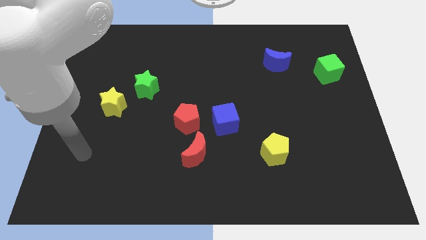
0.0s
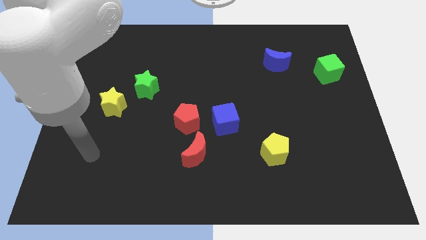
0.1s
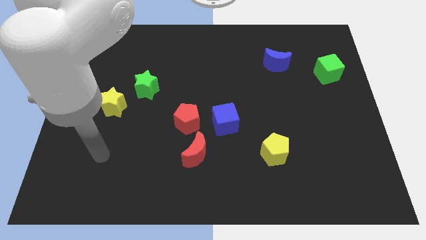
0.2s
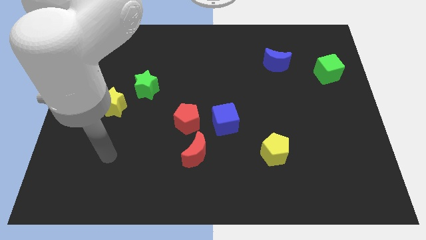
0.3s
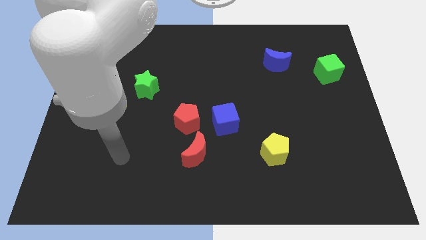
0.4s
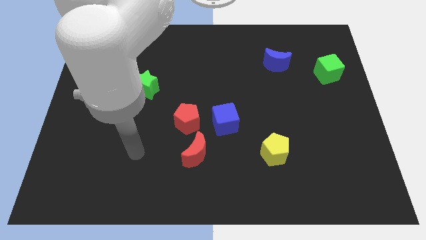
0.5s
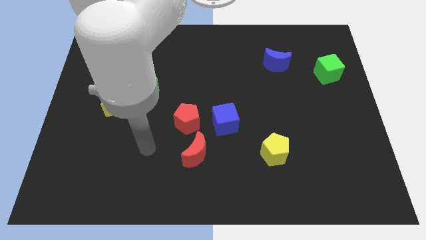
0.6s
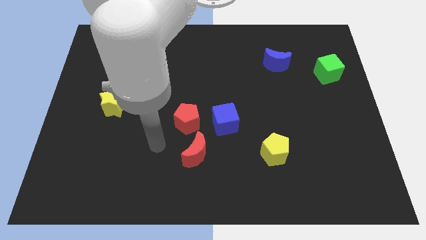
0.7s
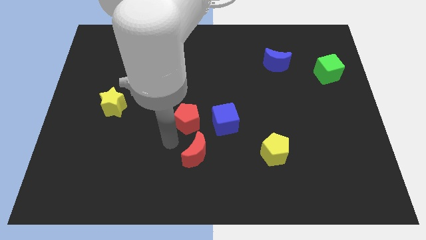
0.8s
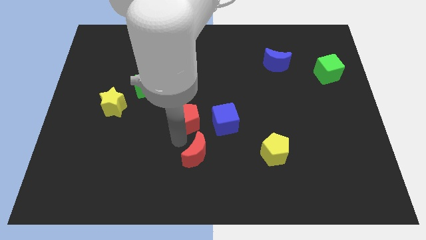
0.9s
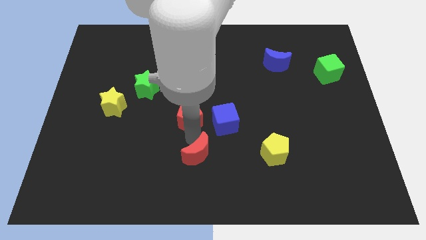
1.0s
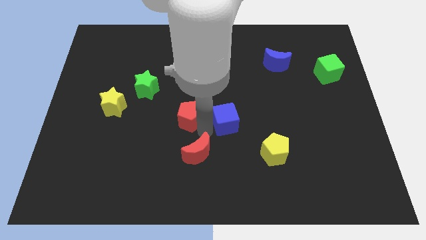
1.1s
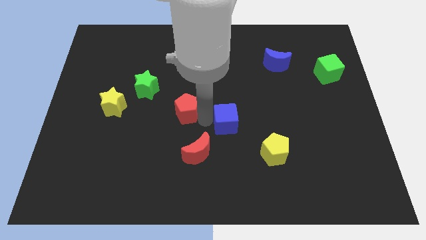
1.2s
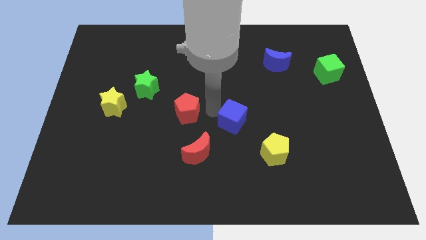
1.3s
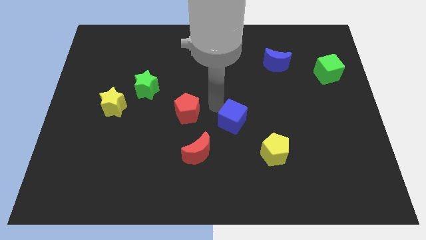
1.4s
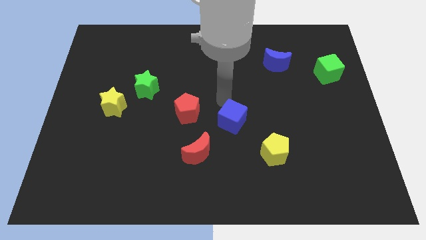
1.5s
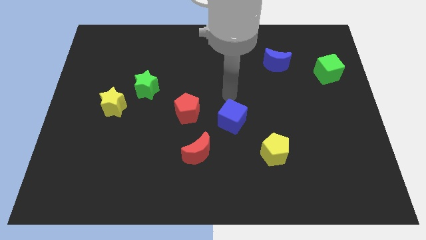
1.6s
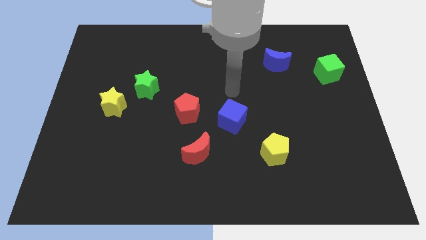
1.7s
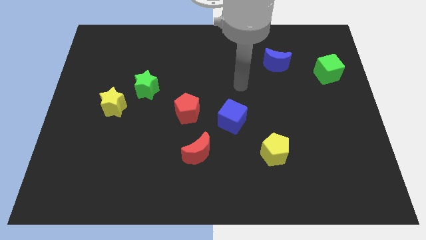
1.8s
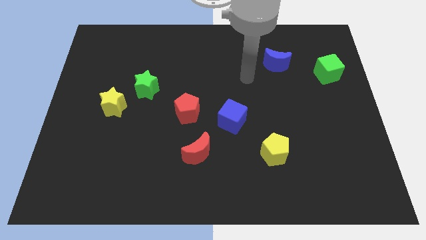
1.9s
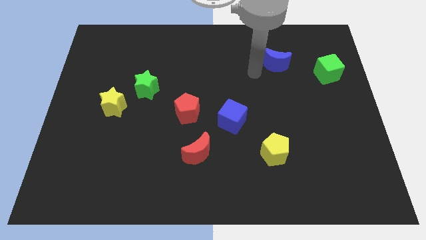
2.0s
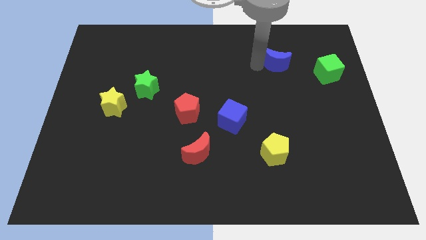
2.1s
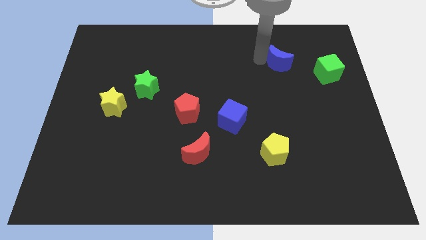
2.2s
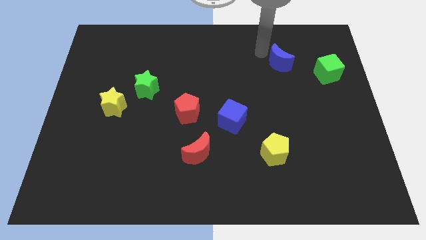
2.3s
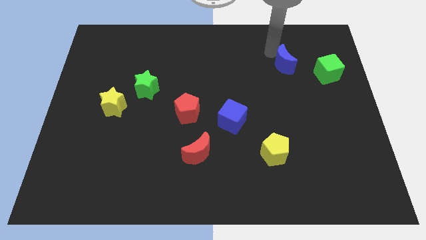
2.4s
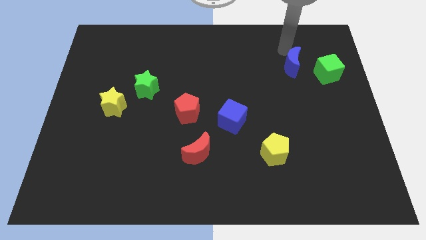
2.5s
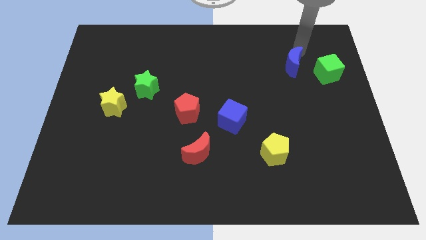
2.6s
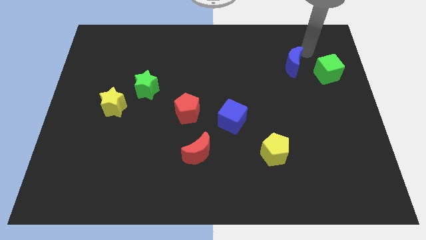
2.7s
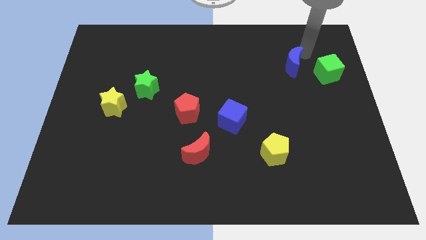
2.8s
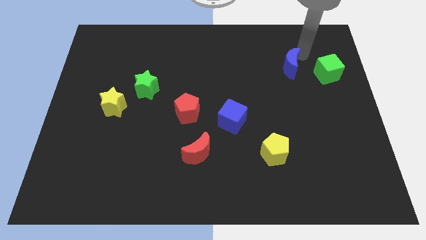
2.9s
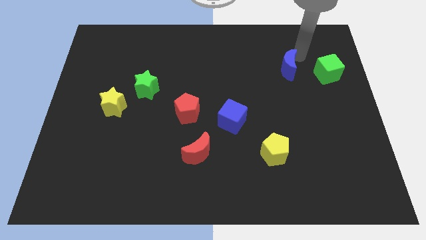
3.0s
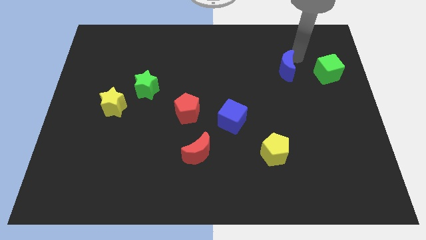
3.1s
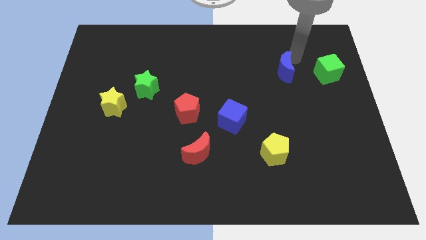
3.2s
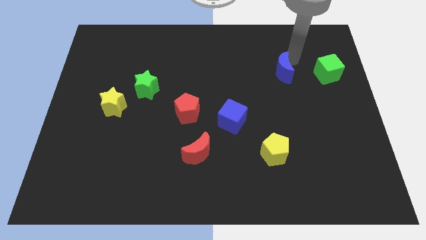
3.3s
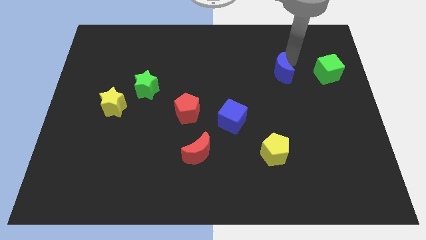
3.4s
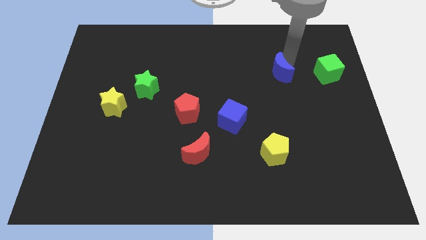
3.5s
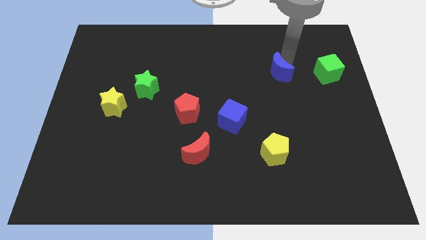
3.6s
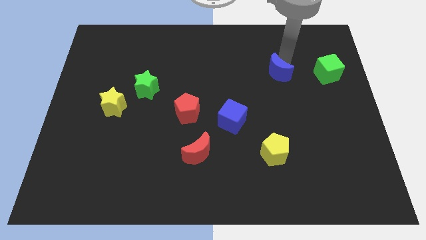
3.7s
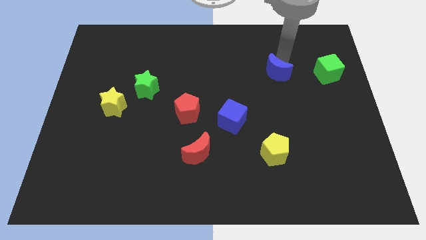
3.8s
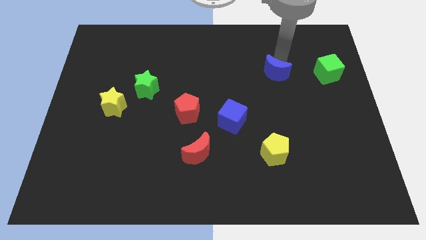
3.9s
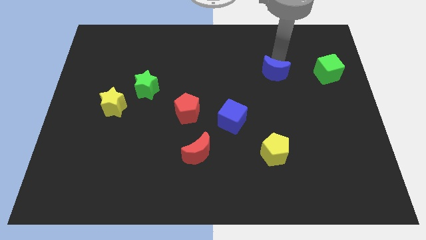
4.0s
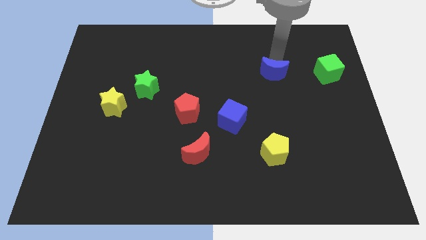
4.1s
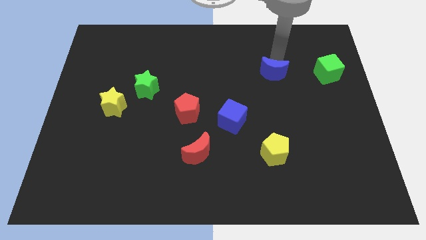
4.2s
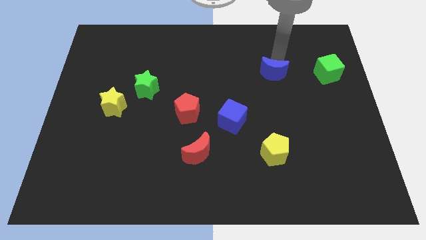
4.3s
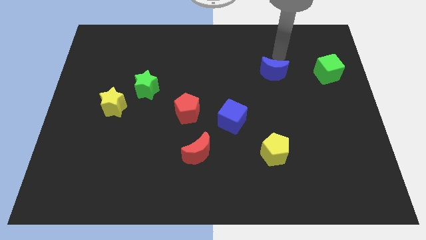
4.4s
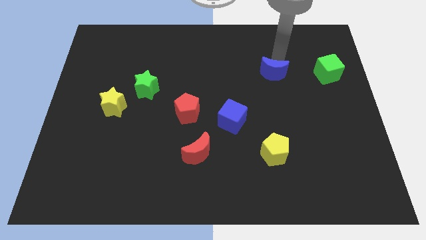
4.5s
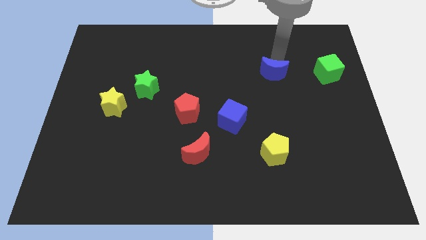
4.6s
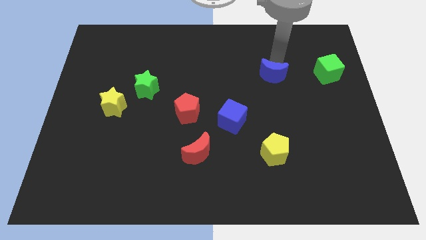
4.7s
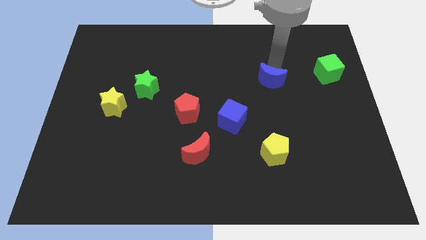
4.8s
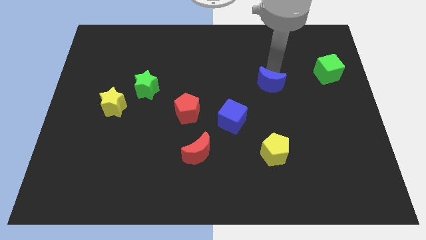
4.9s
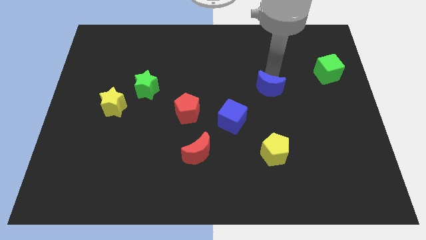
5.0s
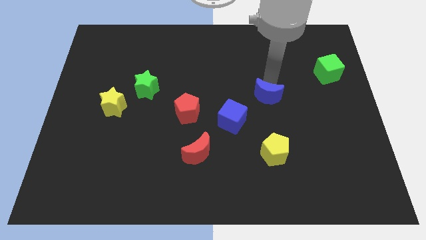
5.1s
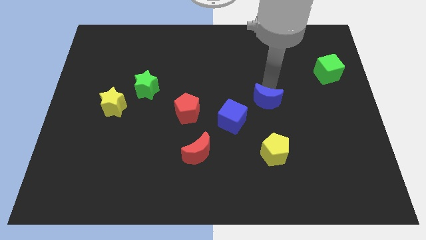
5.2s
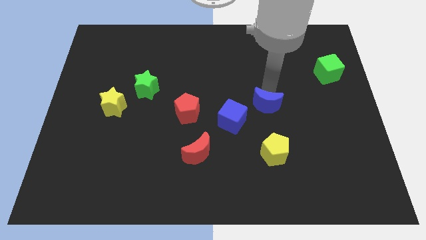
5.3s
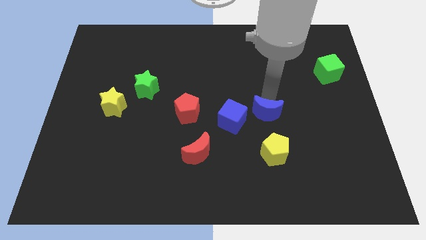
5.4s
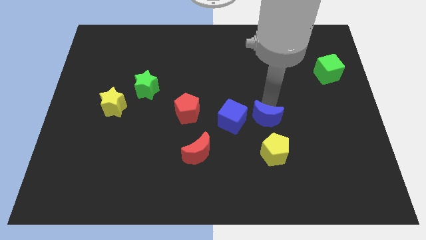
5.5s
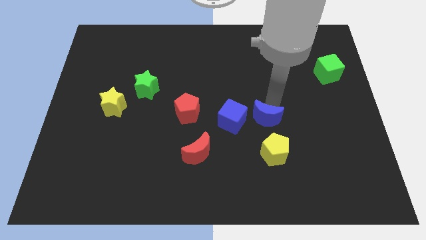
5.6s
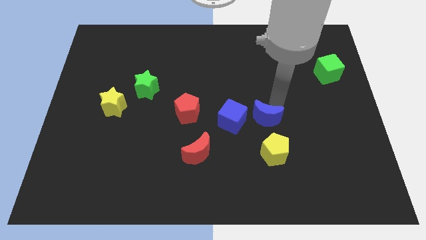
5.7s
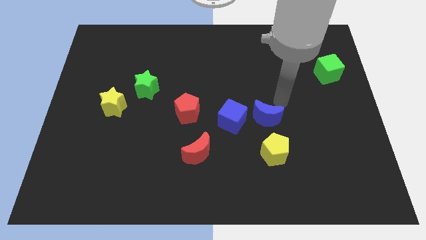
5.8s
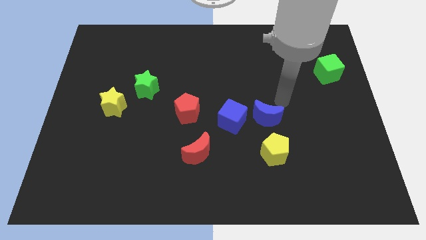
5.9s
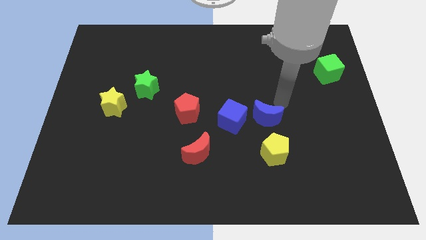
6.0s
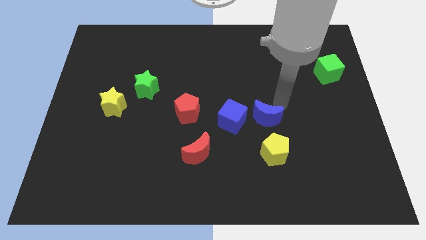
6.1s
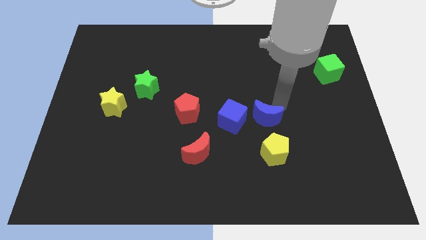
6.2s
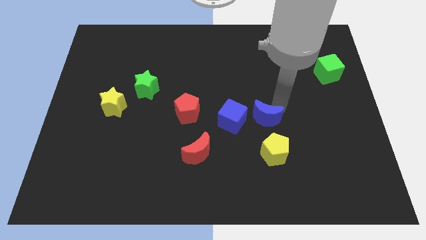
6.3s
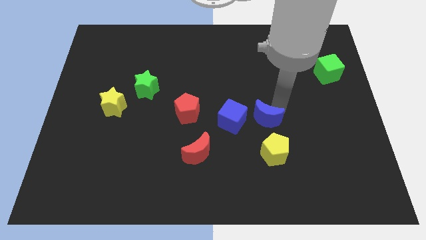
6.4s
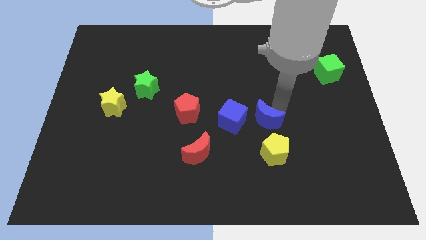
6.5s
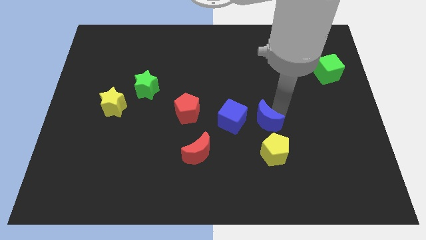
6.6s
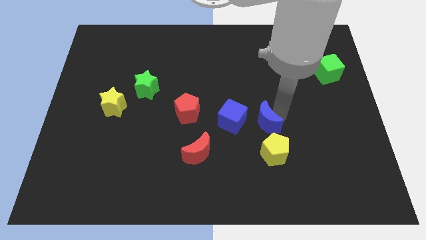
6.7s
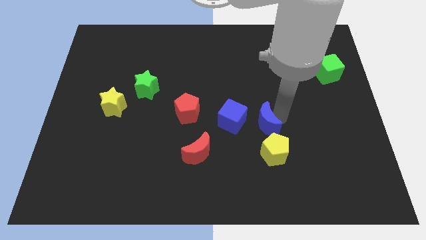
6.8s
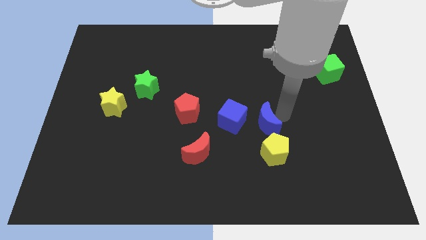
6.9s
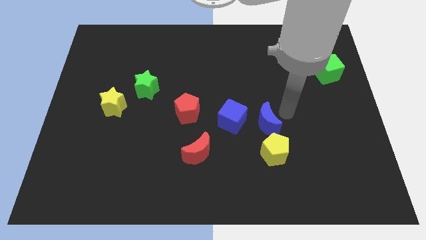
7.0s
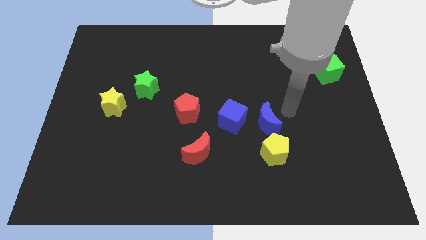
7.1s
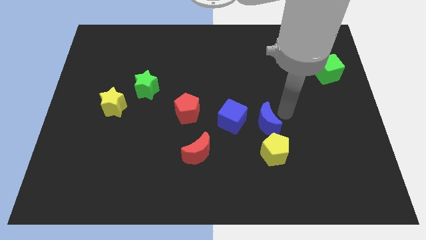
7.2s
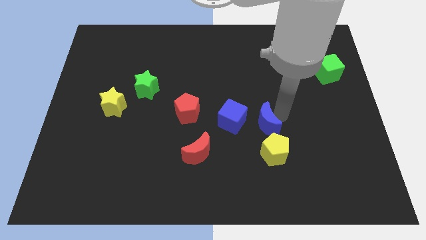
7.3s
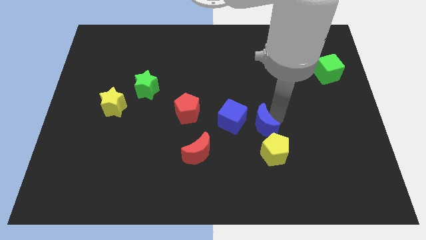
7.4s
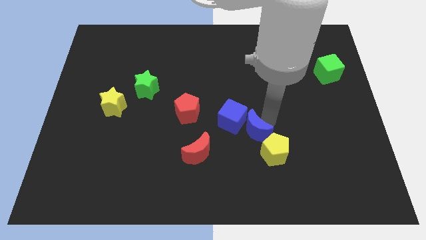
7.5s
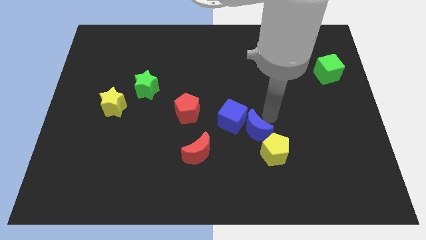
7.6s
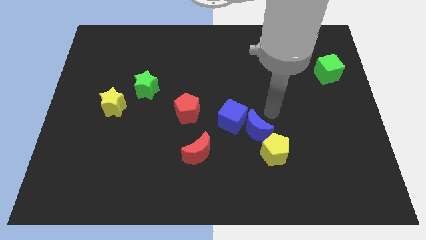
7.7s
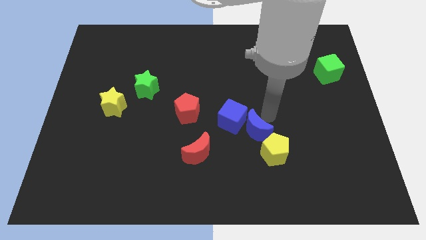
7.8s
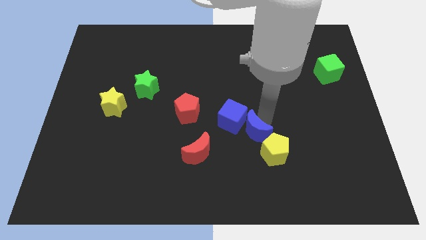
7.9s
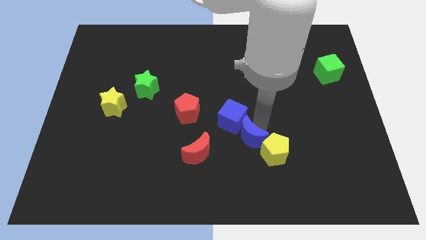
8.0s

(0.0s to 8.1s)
put the blue moon to the left side of the yellow pentagon
